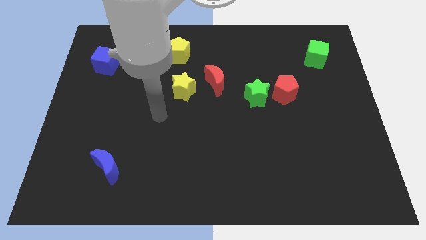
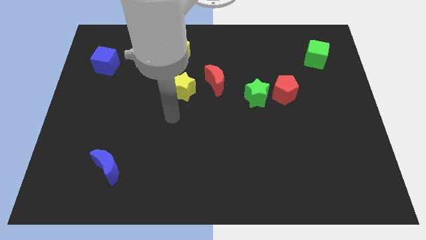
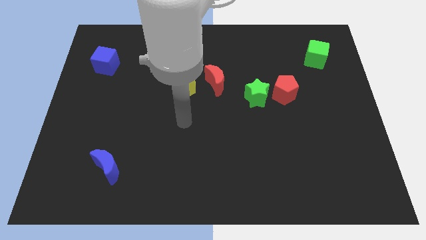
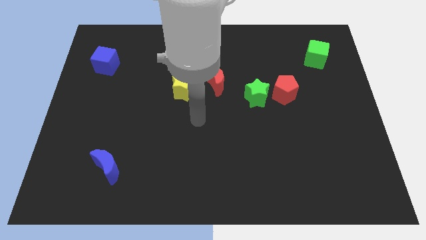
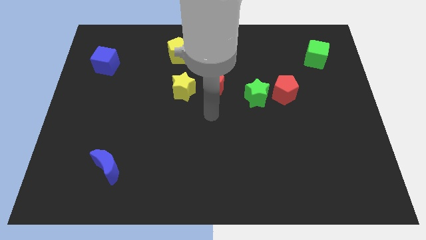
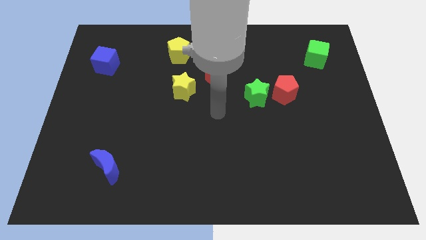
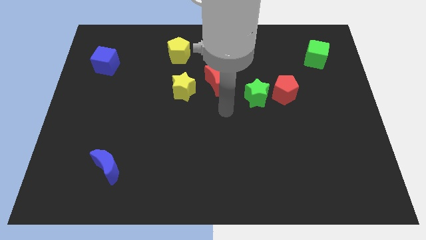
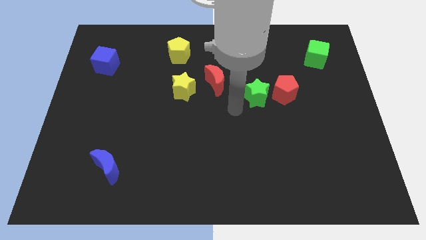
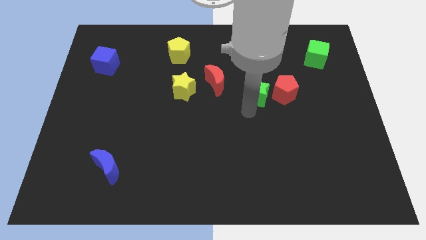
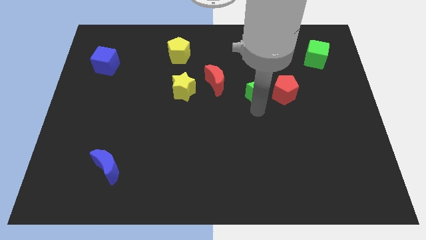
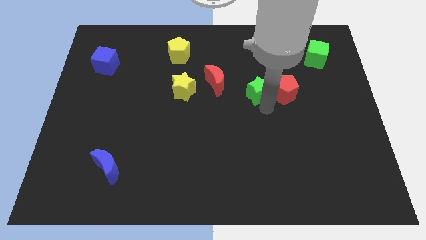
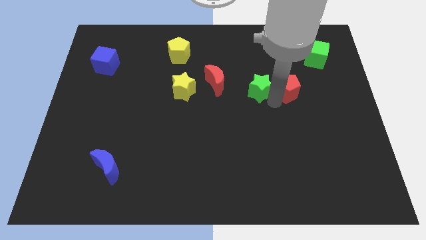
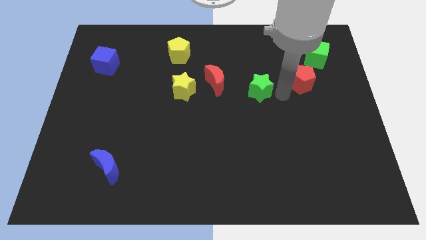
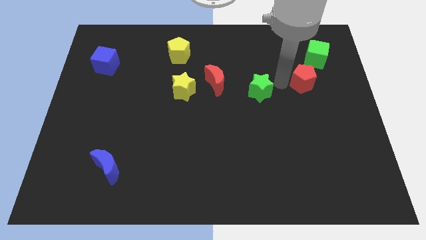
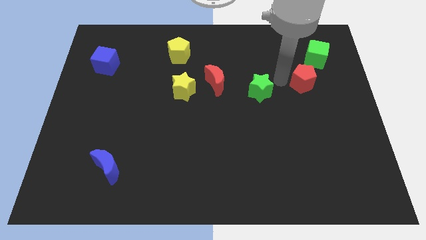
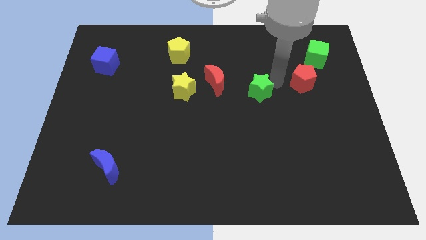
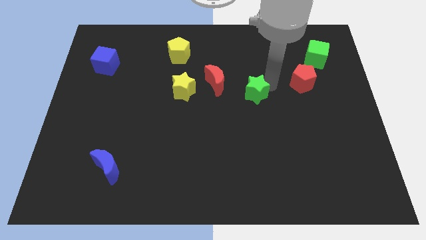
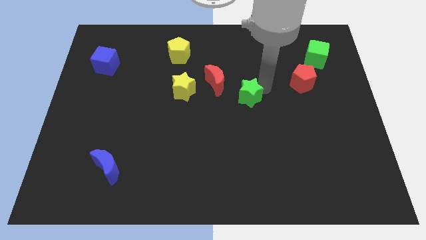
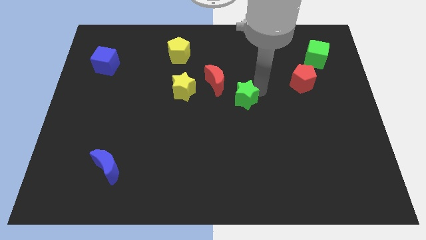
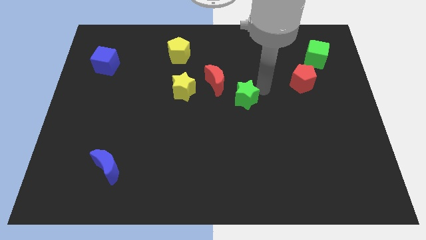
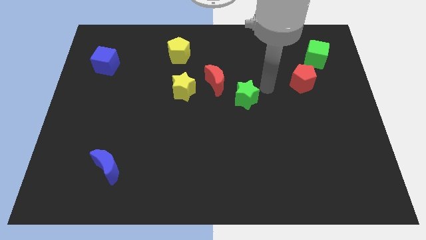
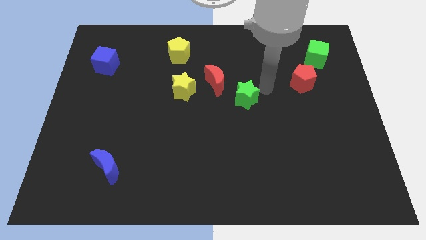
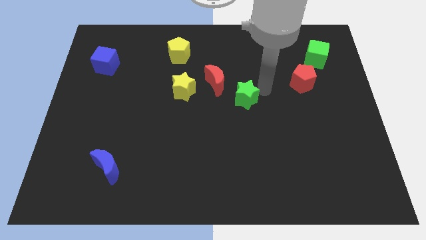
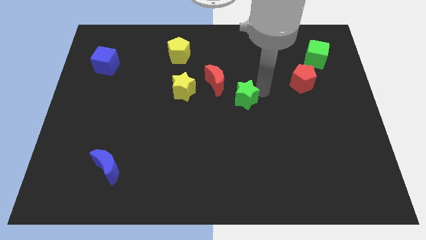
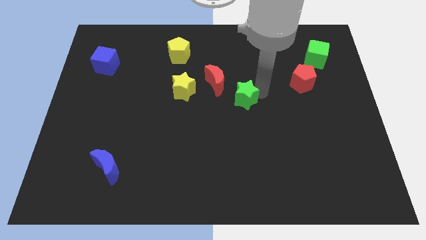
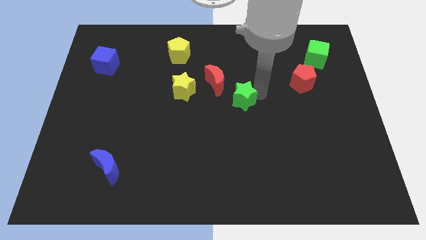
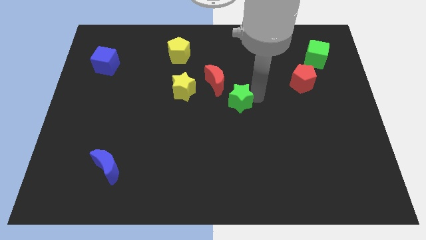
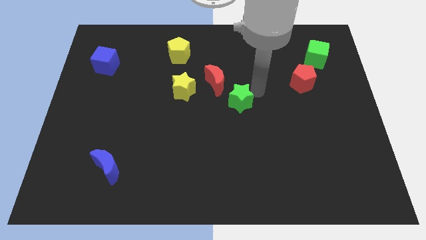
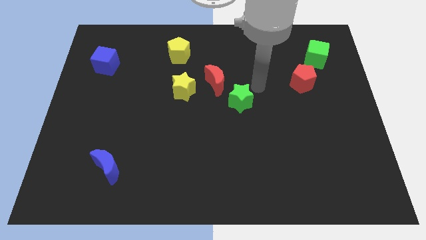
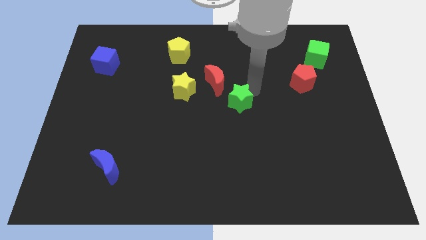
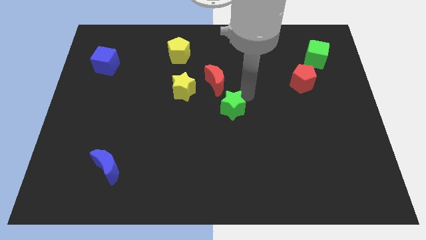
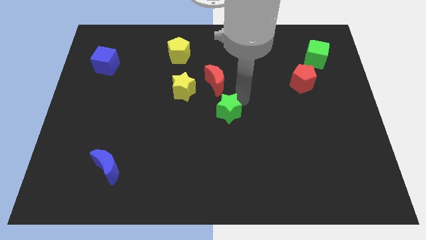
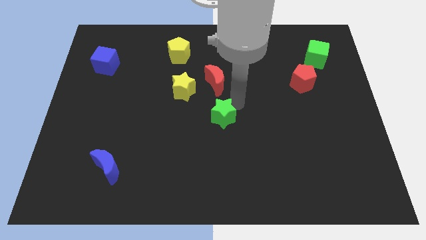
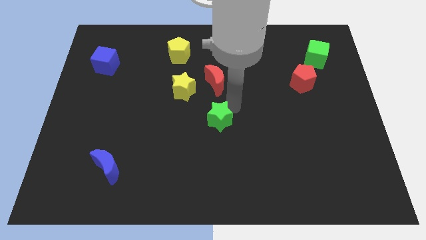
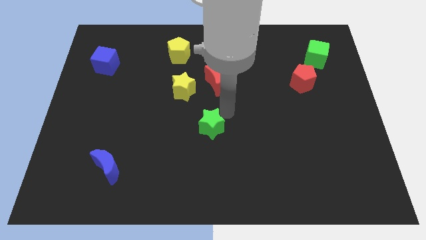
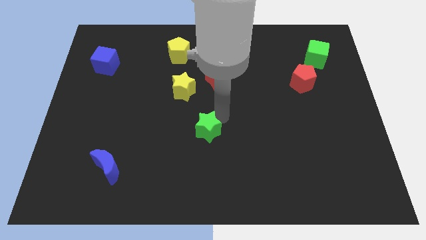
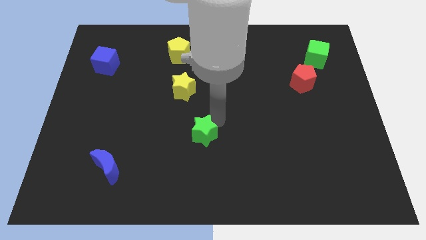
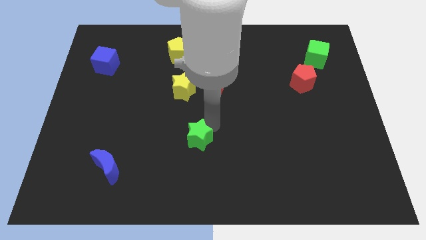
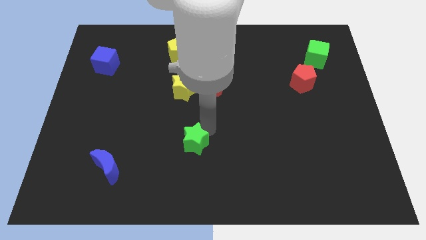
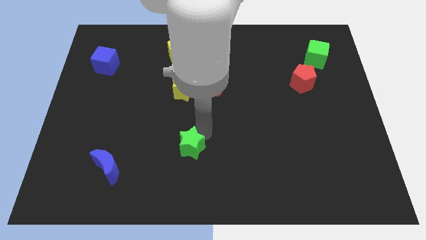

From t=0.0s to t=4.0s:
move the green star downwards and to the left diagonally

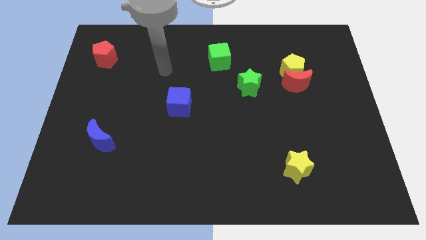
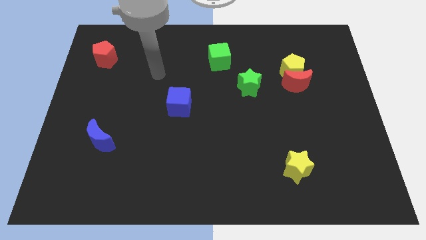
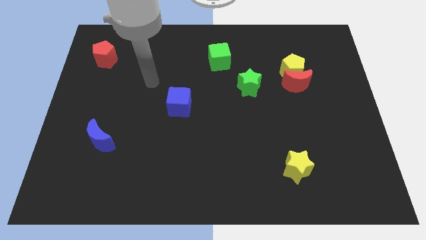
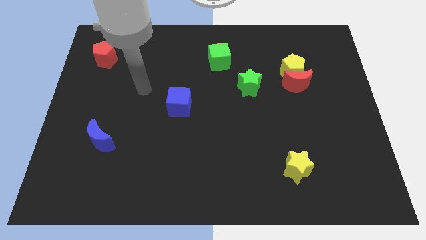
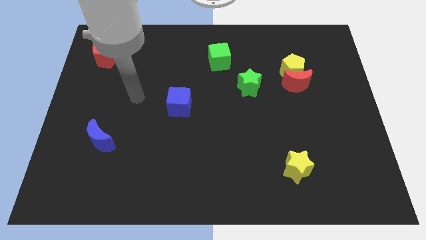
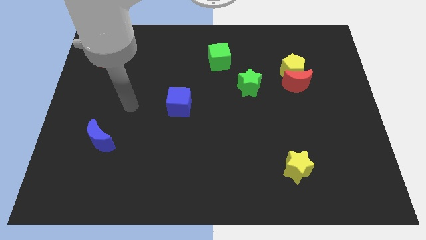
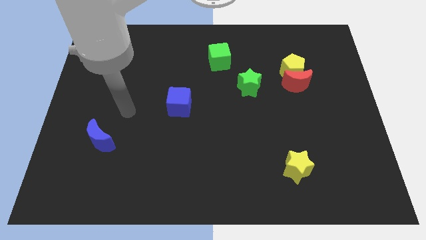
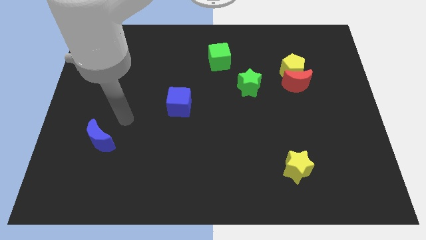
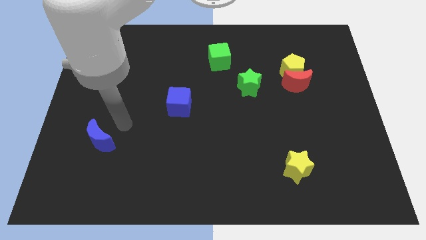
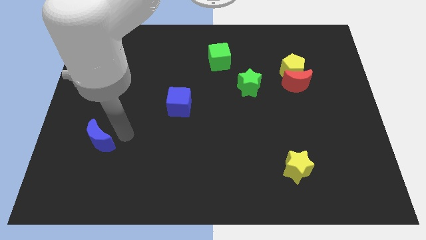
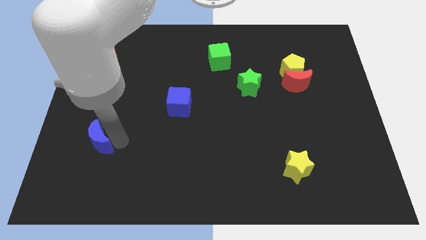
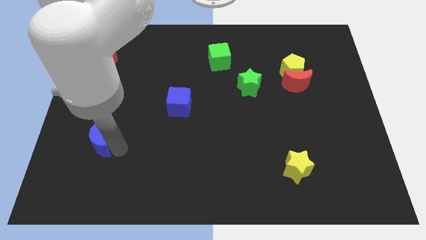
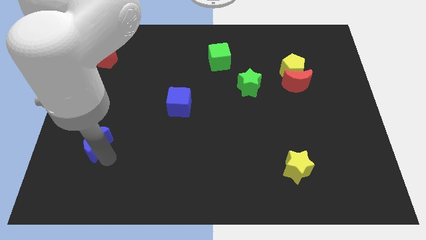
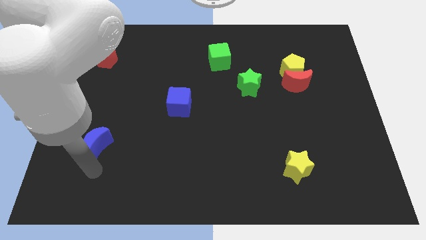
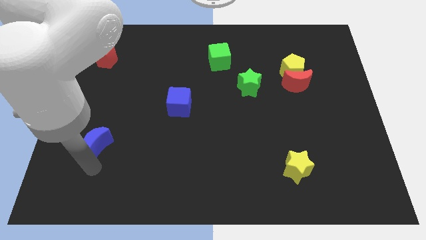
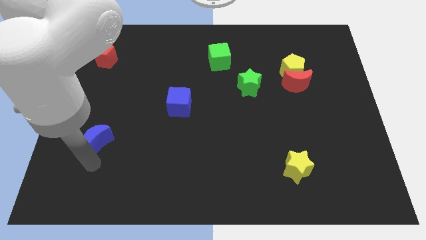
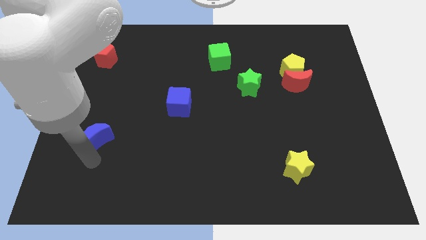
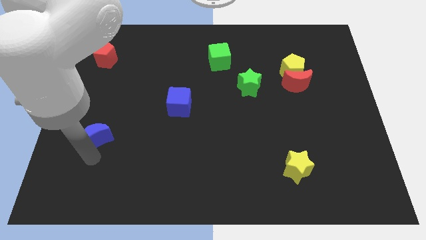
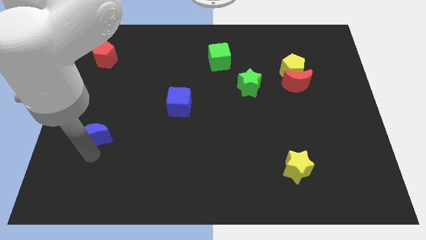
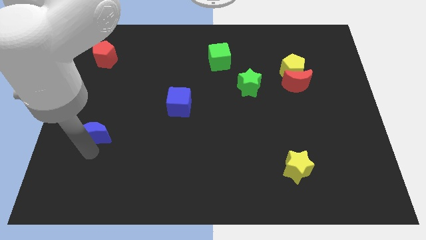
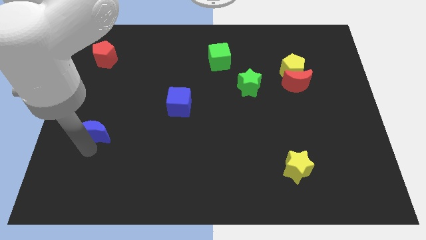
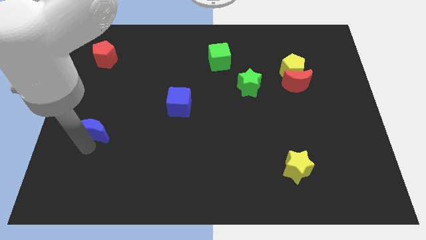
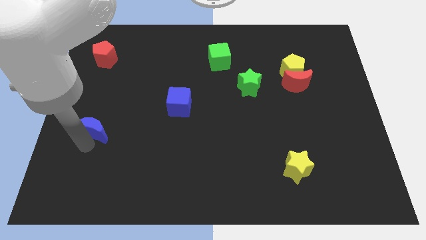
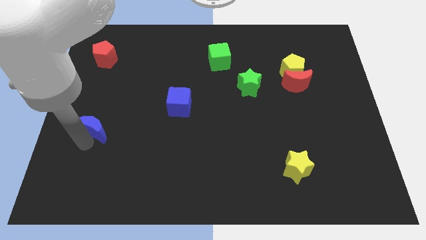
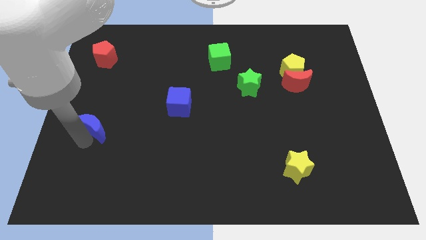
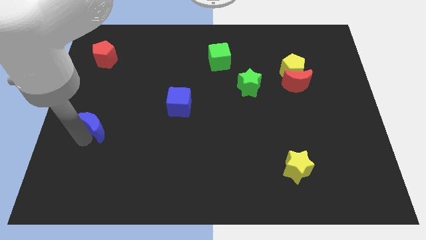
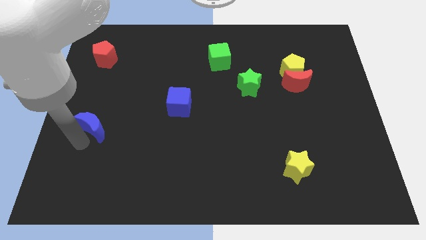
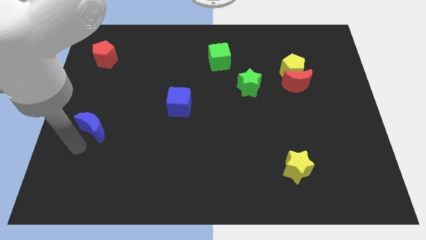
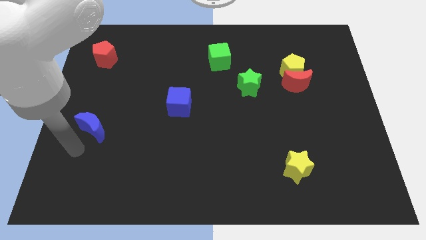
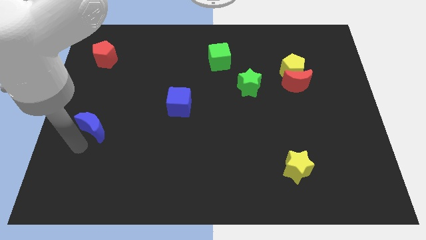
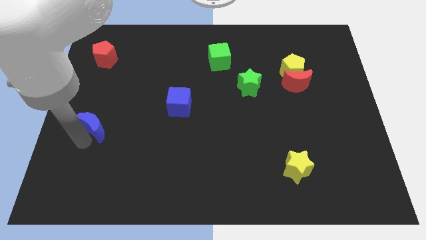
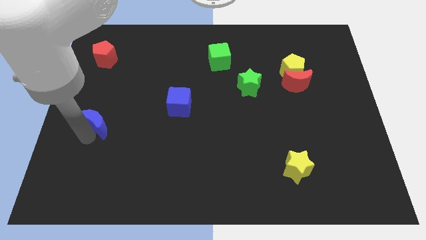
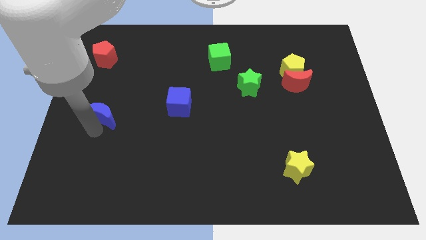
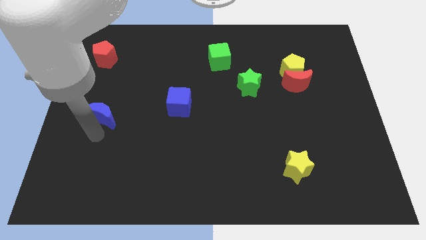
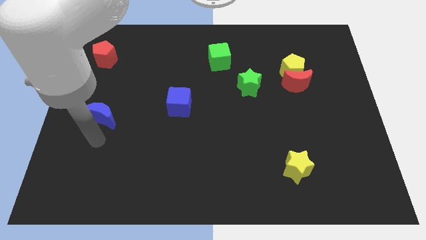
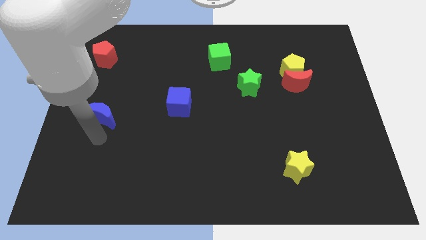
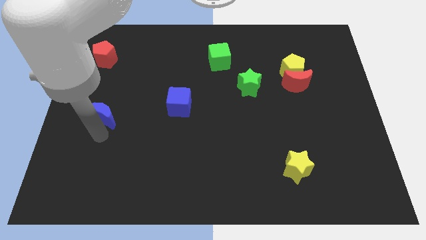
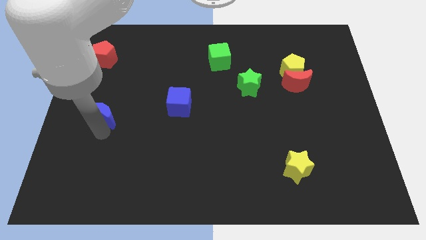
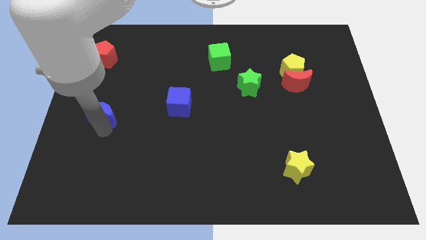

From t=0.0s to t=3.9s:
push the blue moon somewhat up
